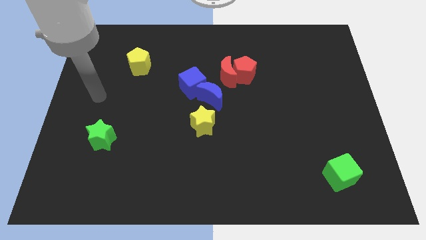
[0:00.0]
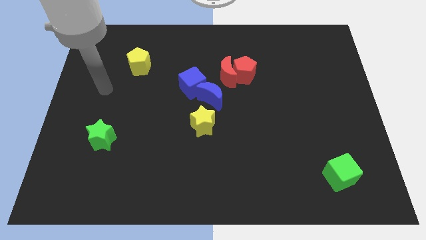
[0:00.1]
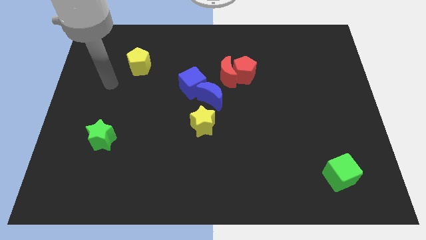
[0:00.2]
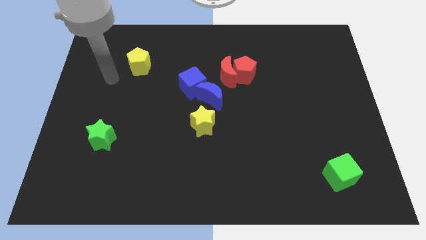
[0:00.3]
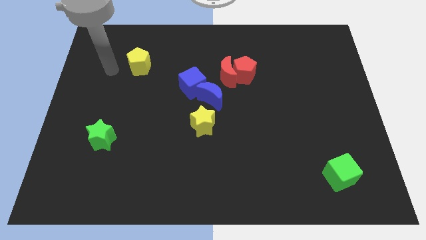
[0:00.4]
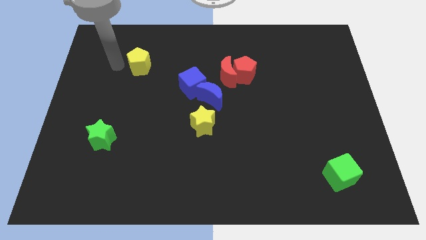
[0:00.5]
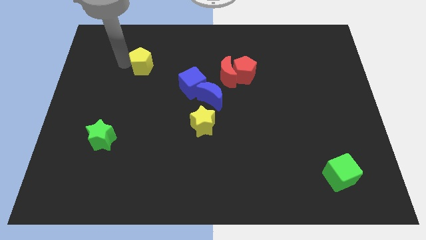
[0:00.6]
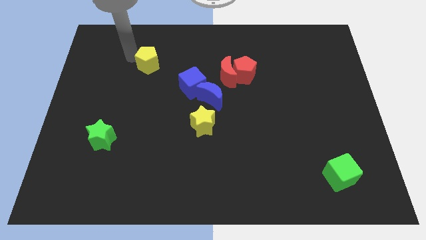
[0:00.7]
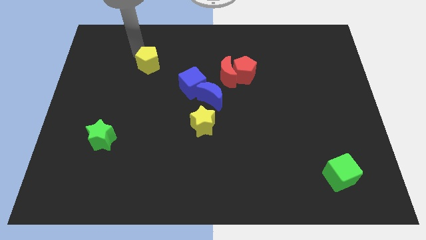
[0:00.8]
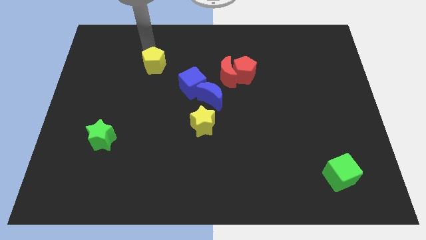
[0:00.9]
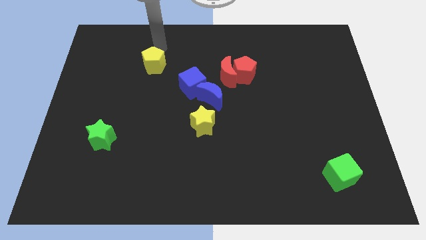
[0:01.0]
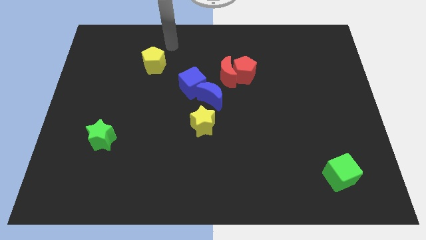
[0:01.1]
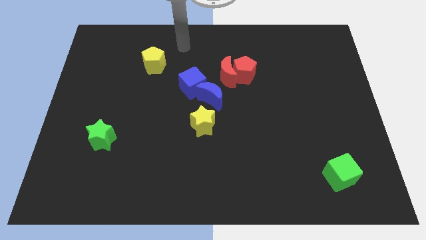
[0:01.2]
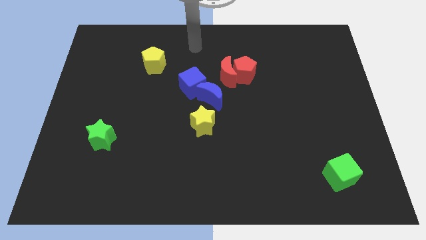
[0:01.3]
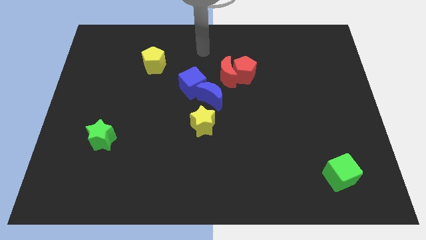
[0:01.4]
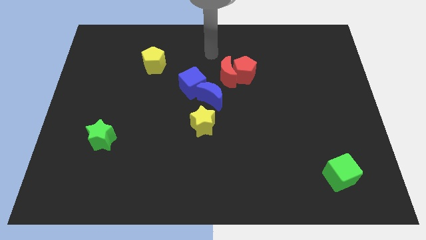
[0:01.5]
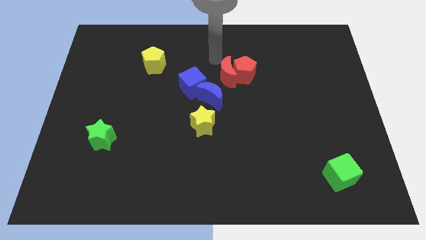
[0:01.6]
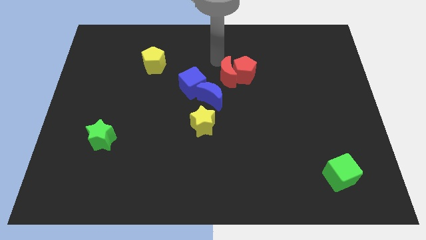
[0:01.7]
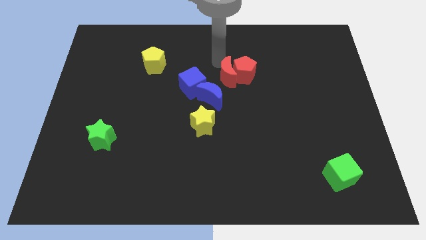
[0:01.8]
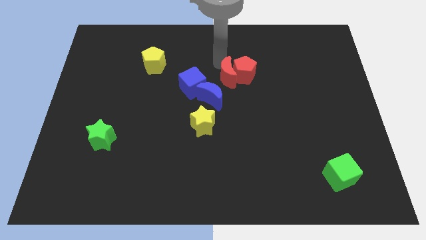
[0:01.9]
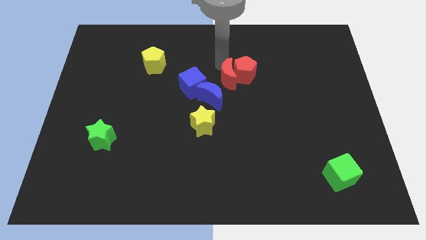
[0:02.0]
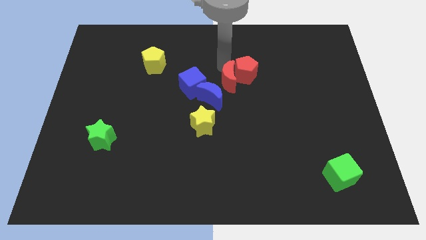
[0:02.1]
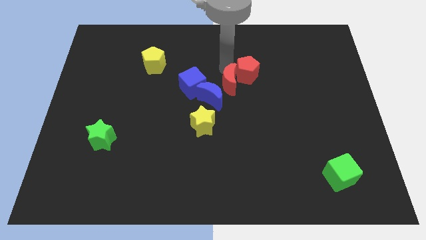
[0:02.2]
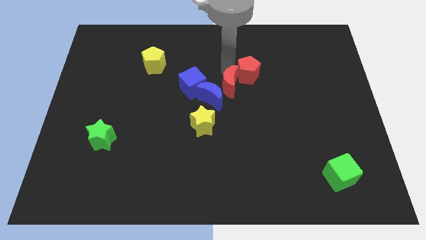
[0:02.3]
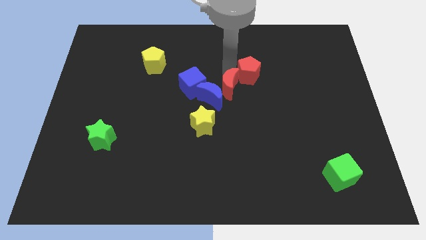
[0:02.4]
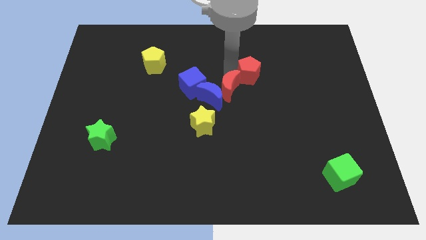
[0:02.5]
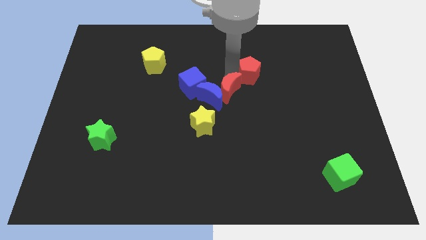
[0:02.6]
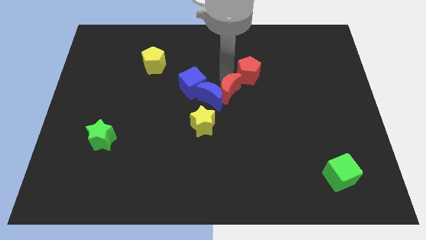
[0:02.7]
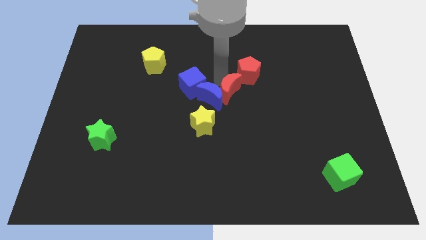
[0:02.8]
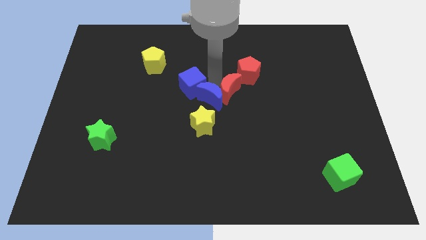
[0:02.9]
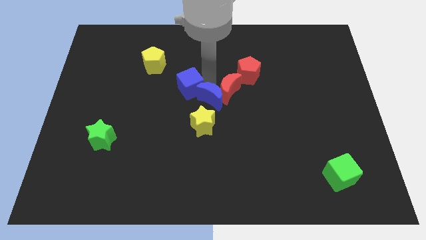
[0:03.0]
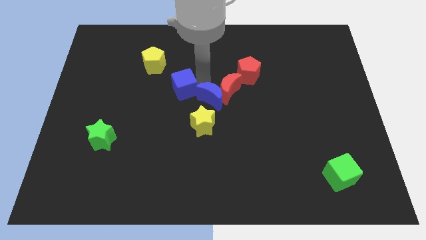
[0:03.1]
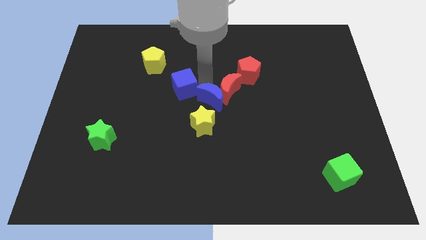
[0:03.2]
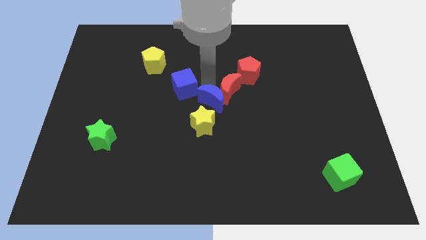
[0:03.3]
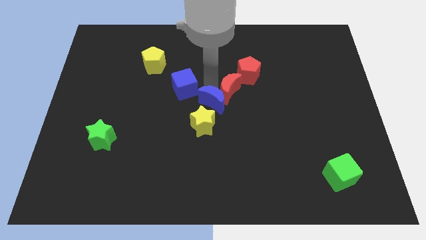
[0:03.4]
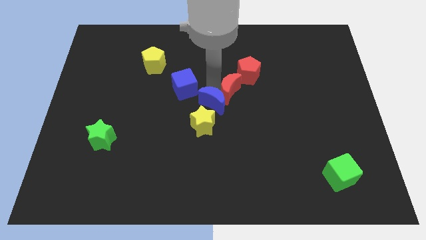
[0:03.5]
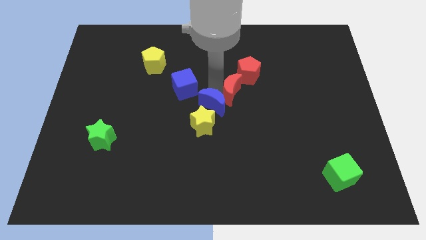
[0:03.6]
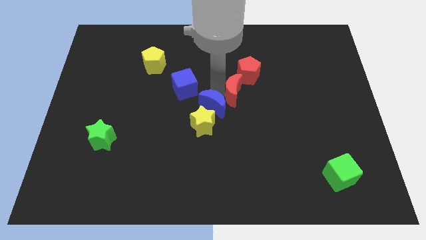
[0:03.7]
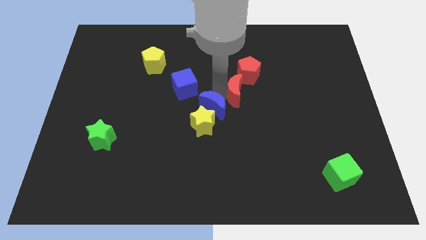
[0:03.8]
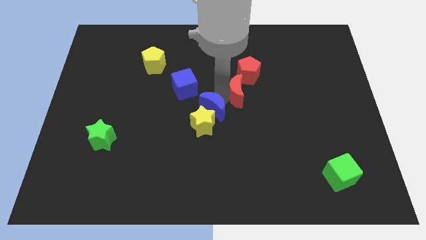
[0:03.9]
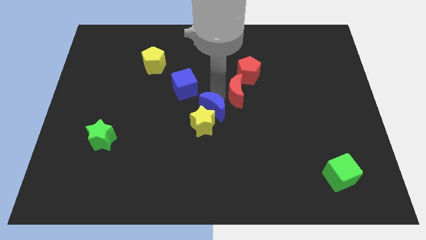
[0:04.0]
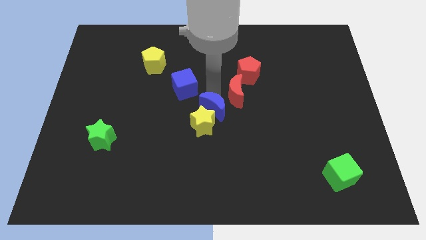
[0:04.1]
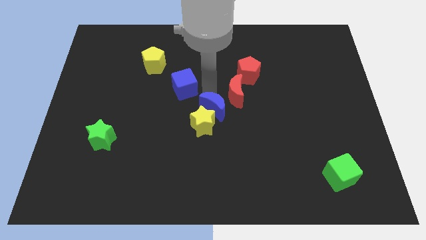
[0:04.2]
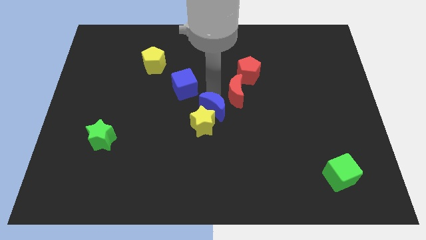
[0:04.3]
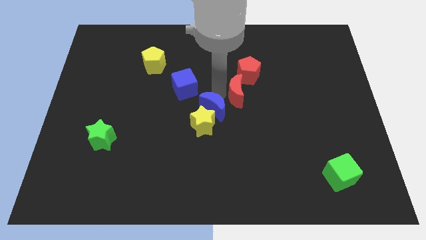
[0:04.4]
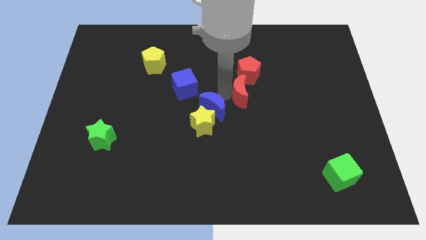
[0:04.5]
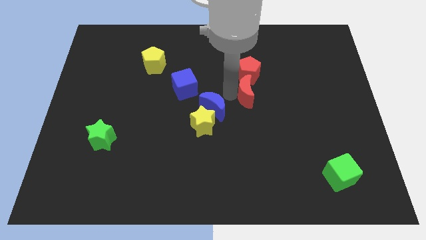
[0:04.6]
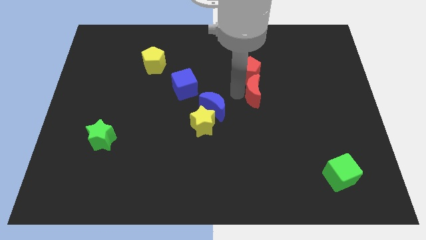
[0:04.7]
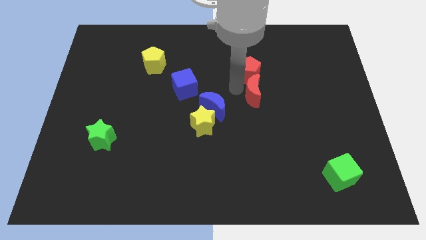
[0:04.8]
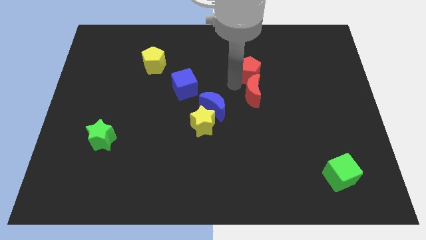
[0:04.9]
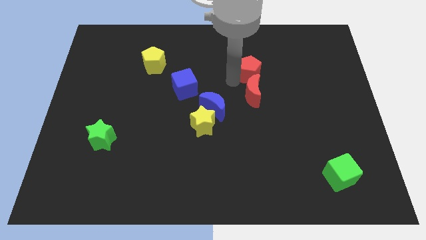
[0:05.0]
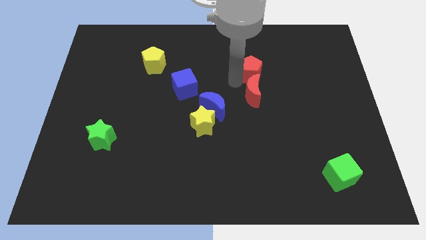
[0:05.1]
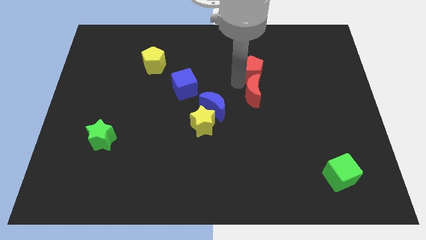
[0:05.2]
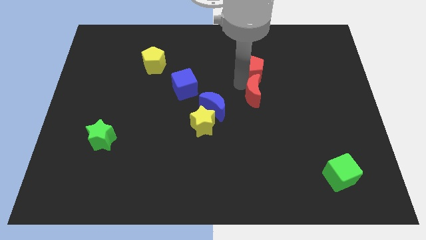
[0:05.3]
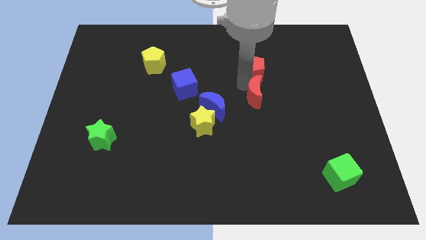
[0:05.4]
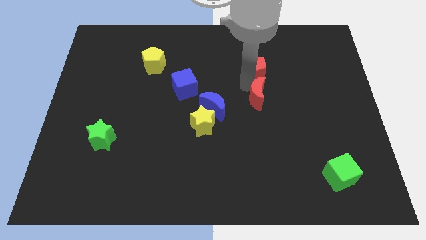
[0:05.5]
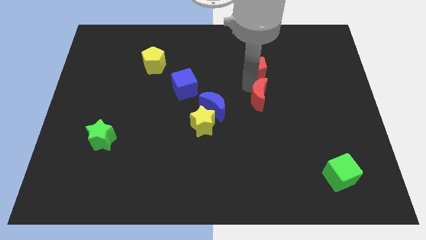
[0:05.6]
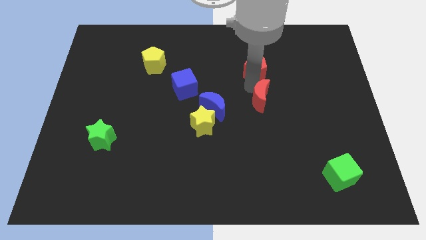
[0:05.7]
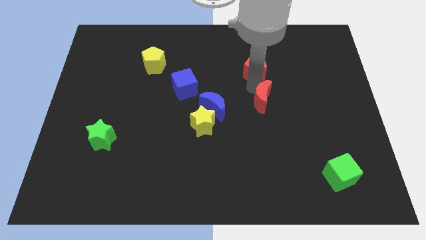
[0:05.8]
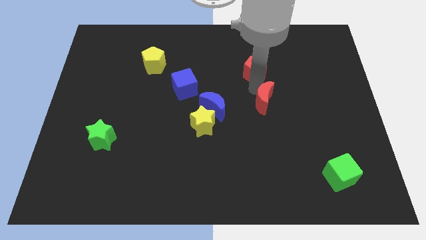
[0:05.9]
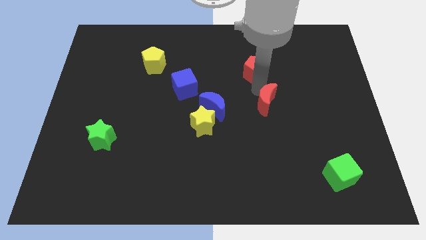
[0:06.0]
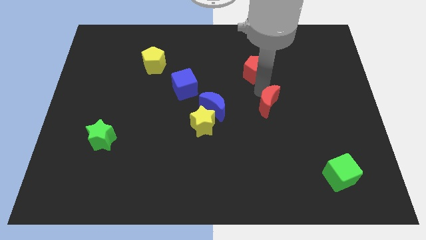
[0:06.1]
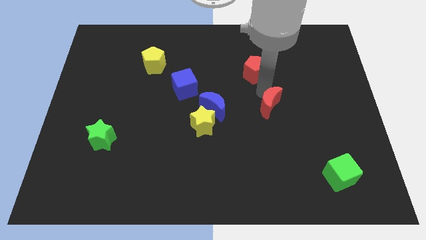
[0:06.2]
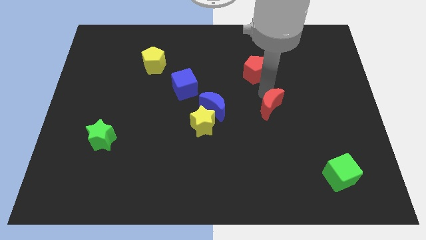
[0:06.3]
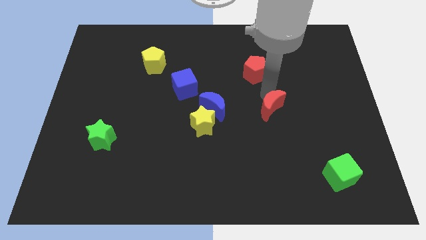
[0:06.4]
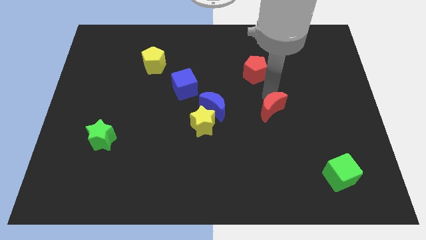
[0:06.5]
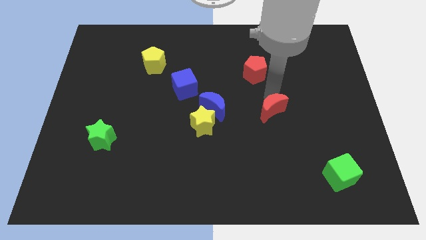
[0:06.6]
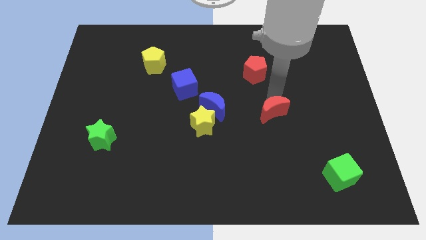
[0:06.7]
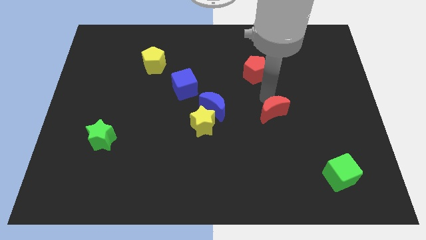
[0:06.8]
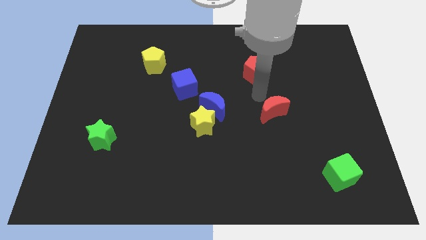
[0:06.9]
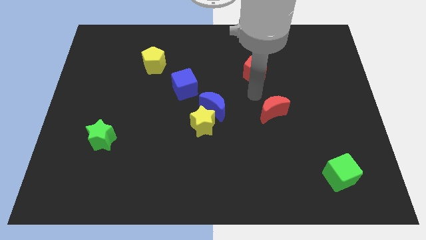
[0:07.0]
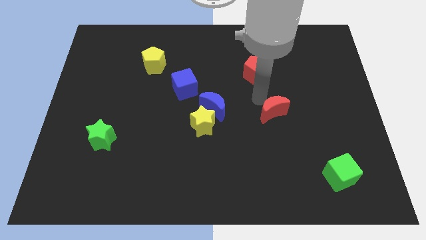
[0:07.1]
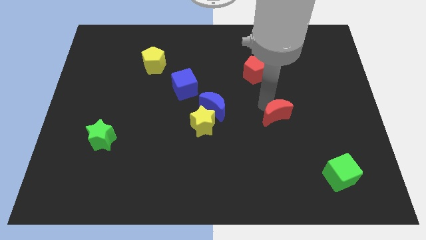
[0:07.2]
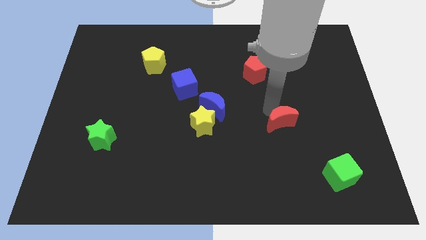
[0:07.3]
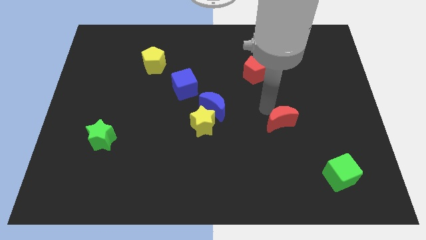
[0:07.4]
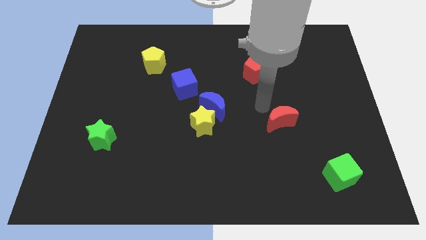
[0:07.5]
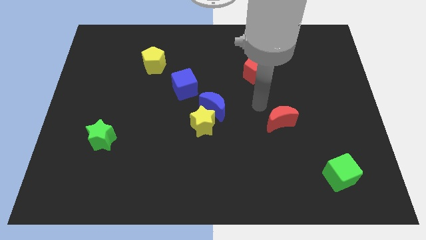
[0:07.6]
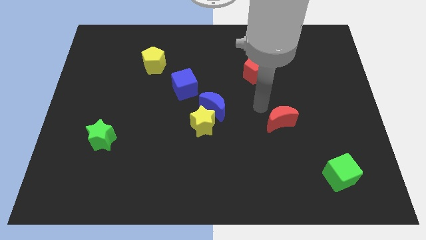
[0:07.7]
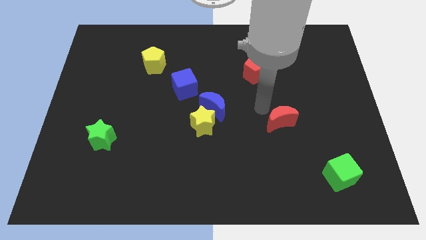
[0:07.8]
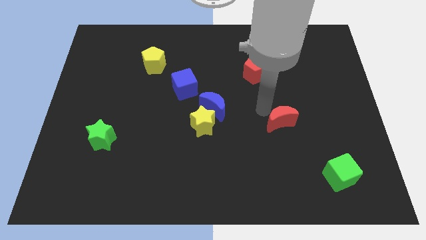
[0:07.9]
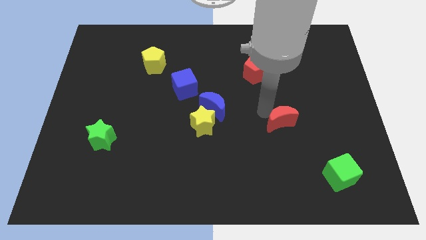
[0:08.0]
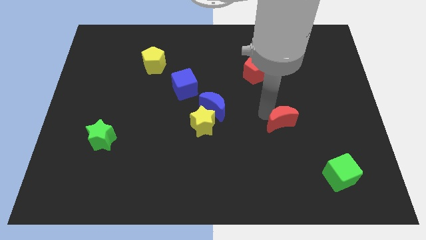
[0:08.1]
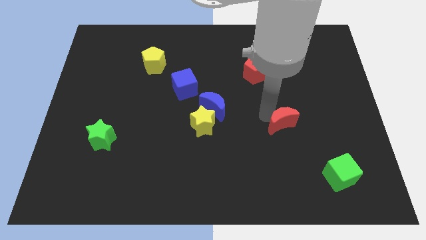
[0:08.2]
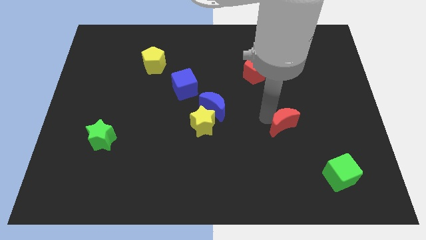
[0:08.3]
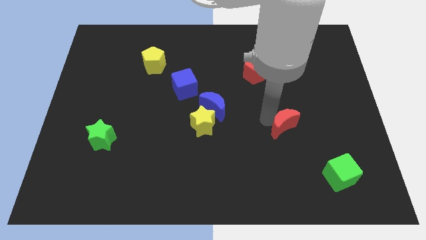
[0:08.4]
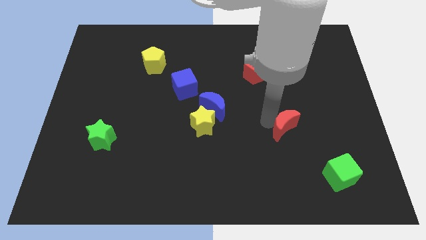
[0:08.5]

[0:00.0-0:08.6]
push the red moon down and then right
